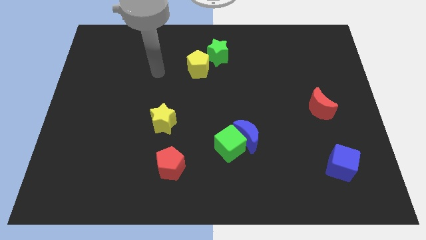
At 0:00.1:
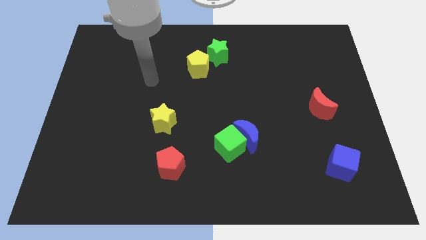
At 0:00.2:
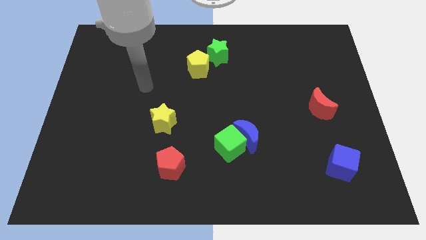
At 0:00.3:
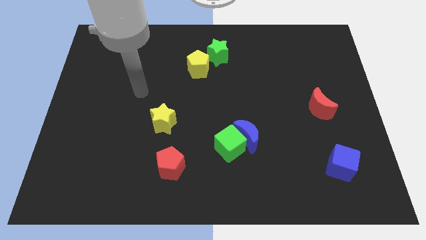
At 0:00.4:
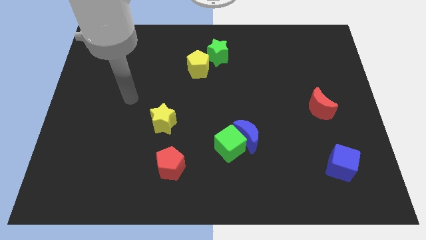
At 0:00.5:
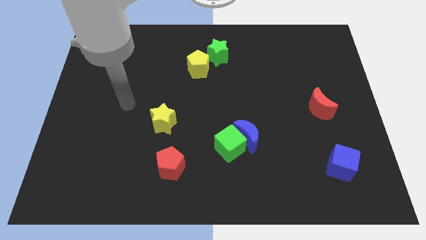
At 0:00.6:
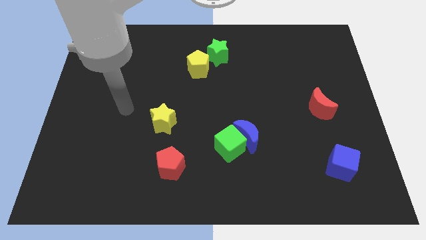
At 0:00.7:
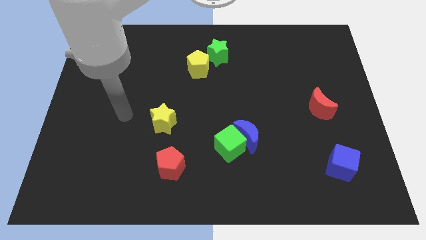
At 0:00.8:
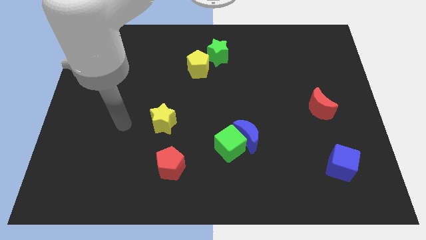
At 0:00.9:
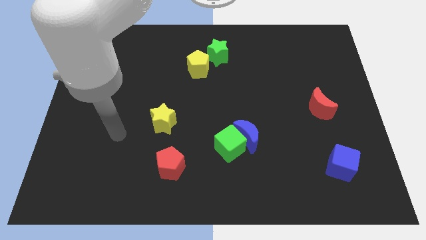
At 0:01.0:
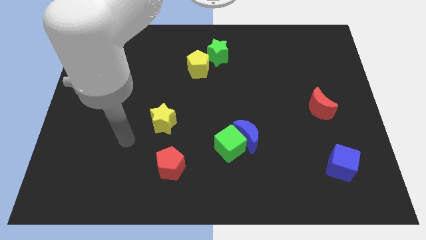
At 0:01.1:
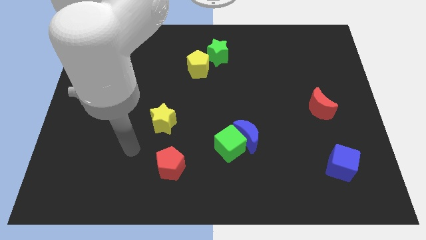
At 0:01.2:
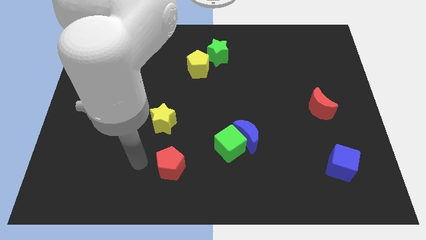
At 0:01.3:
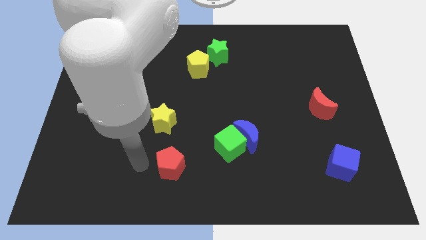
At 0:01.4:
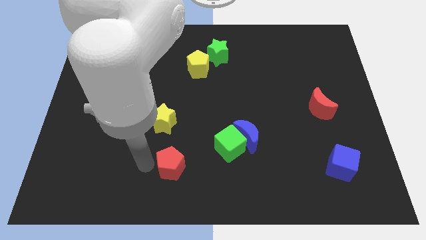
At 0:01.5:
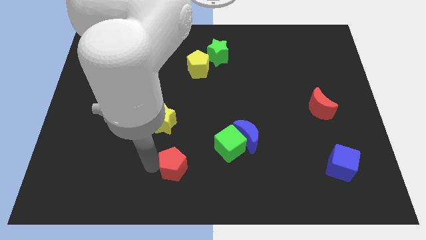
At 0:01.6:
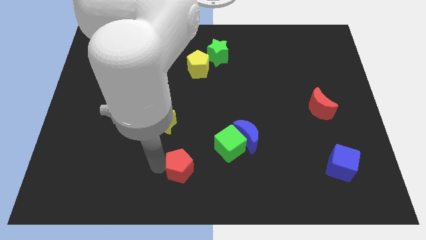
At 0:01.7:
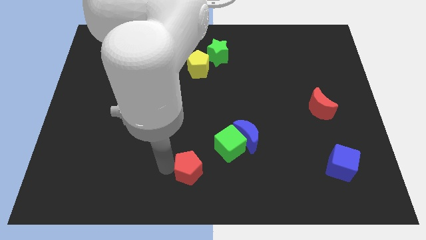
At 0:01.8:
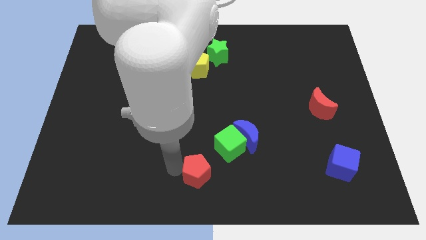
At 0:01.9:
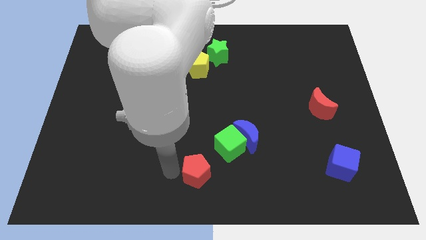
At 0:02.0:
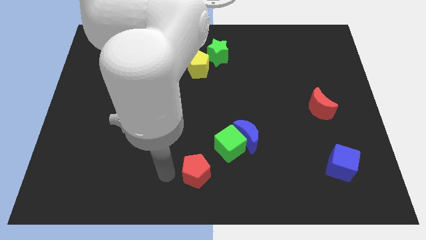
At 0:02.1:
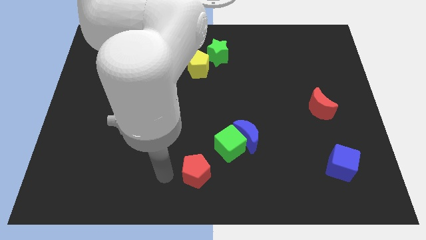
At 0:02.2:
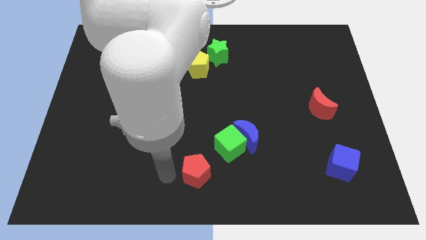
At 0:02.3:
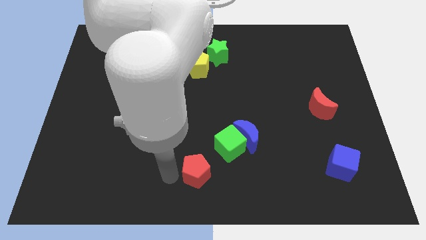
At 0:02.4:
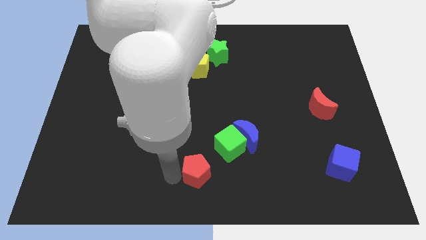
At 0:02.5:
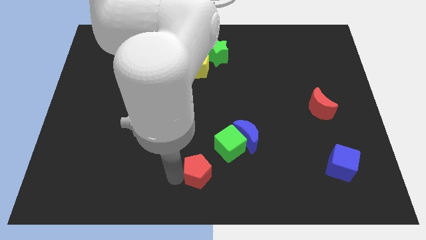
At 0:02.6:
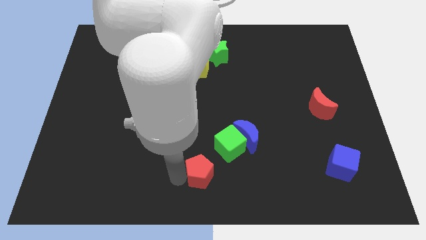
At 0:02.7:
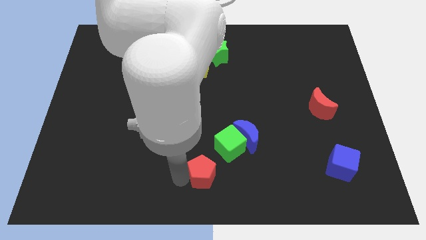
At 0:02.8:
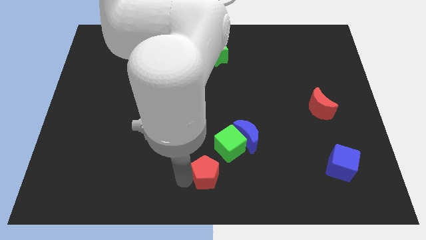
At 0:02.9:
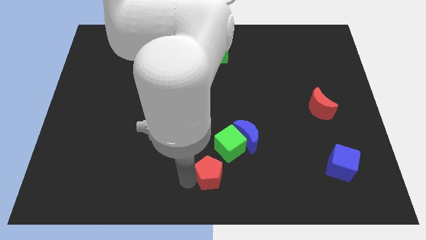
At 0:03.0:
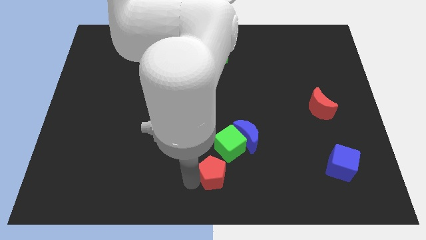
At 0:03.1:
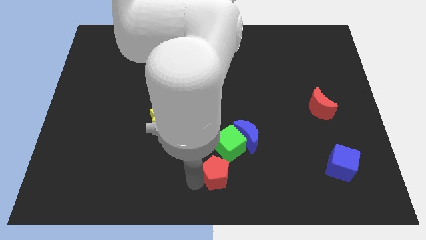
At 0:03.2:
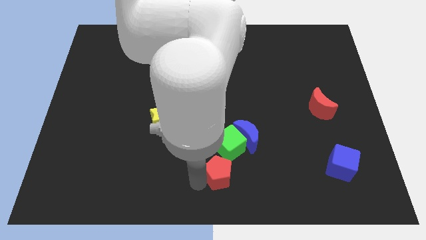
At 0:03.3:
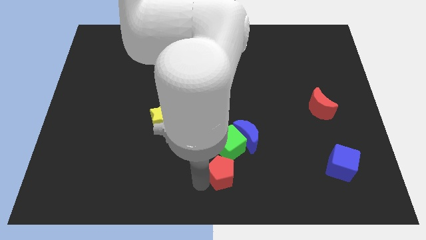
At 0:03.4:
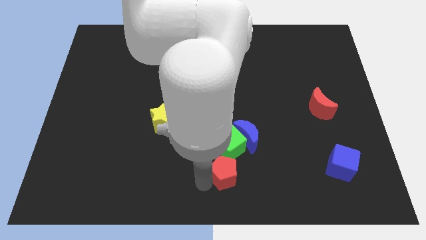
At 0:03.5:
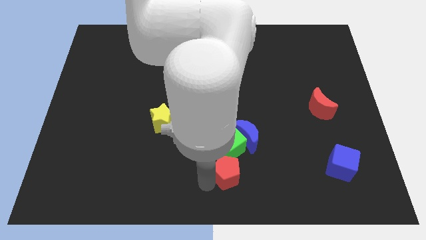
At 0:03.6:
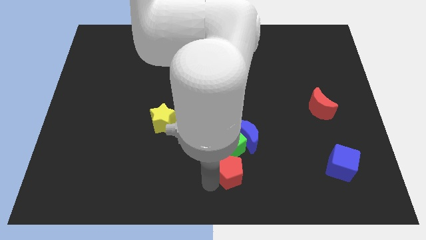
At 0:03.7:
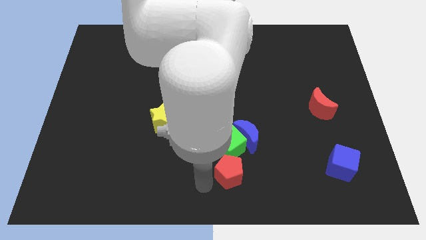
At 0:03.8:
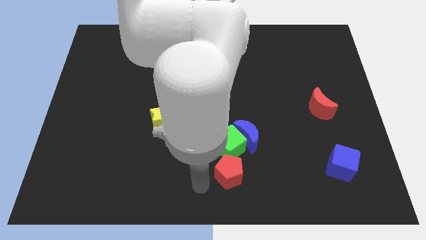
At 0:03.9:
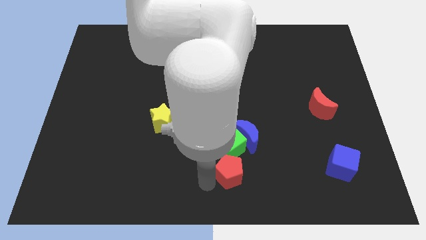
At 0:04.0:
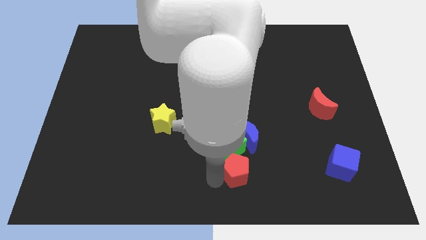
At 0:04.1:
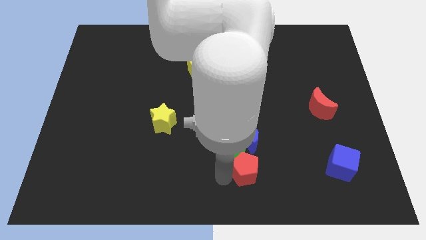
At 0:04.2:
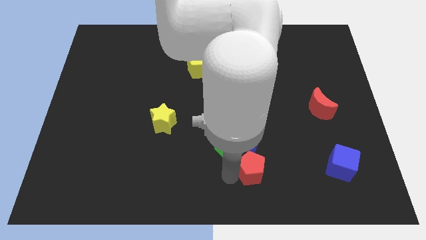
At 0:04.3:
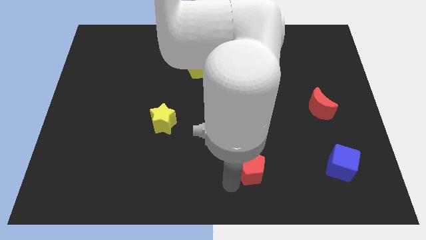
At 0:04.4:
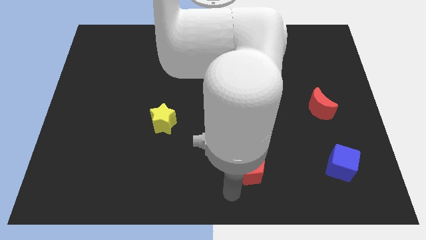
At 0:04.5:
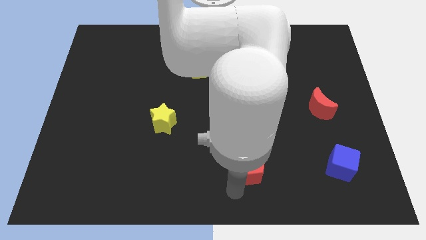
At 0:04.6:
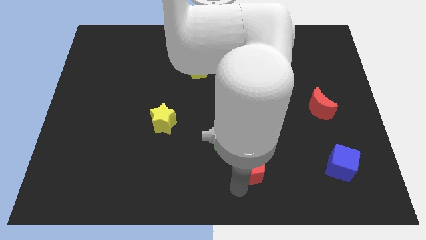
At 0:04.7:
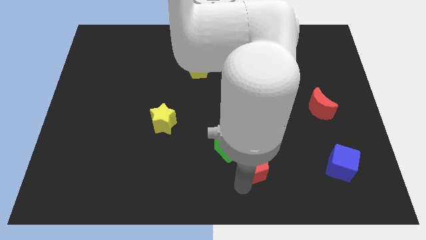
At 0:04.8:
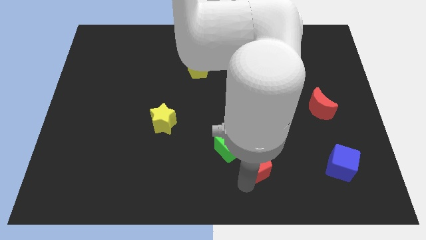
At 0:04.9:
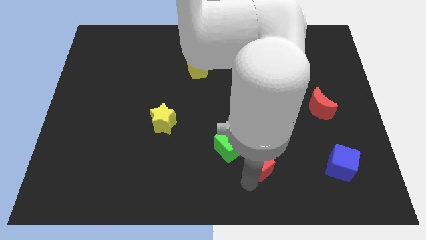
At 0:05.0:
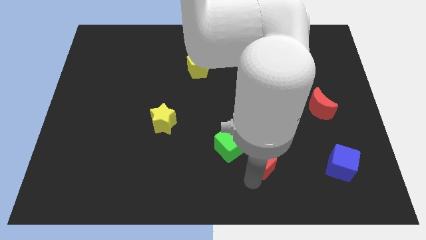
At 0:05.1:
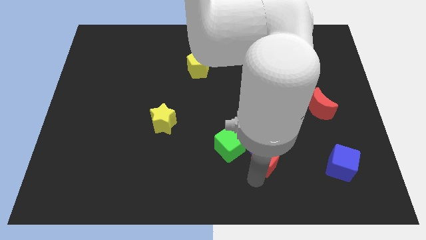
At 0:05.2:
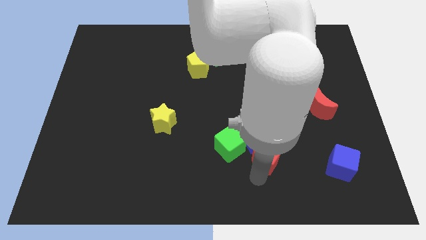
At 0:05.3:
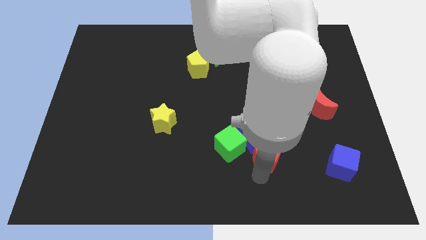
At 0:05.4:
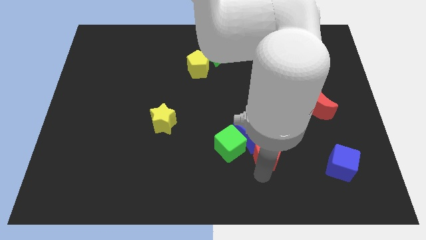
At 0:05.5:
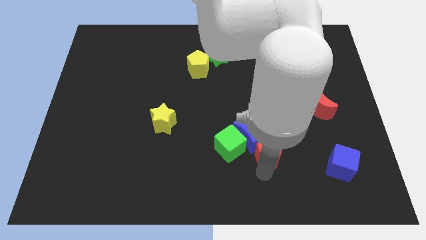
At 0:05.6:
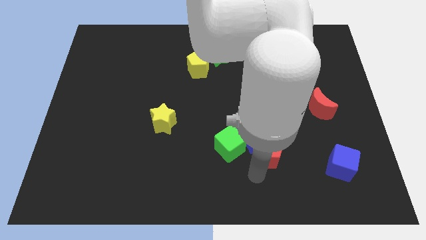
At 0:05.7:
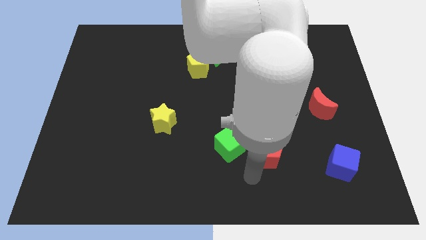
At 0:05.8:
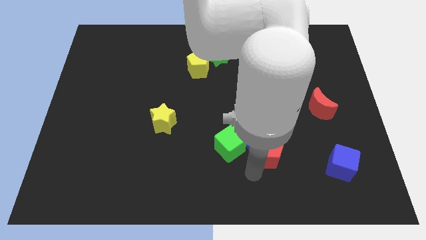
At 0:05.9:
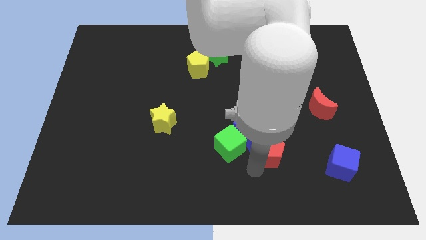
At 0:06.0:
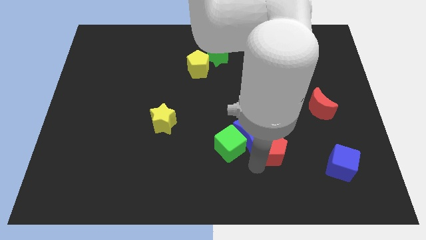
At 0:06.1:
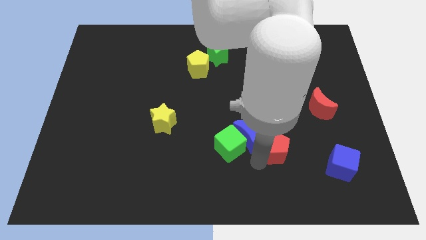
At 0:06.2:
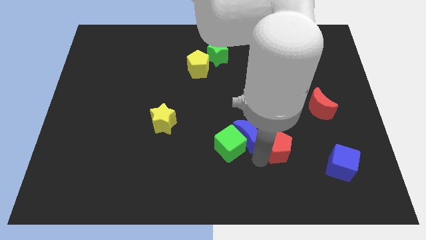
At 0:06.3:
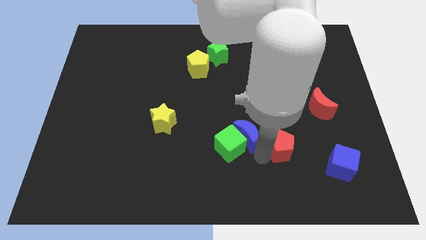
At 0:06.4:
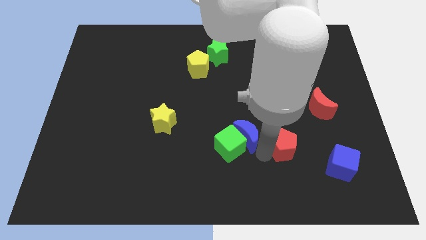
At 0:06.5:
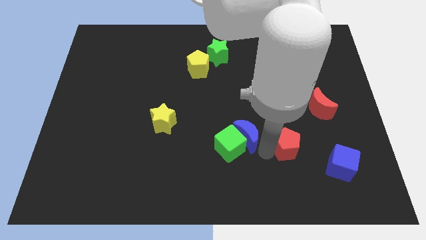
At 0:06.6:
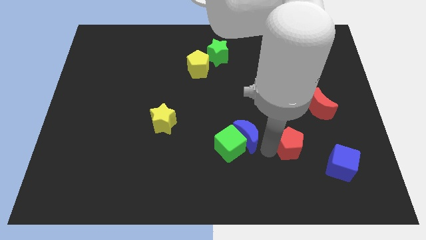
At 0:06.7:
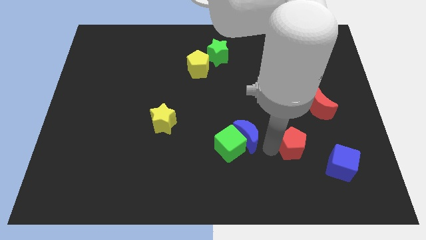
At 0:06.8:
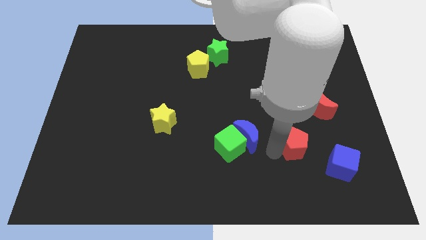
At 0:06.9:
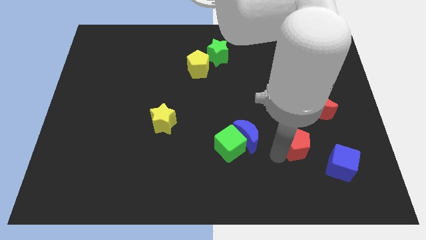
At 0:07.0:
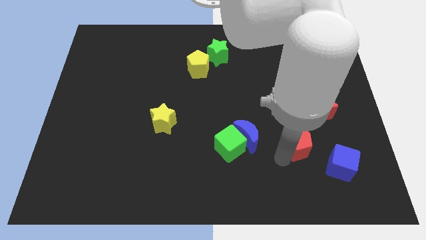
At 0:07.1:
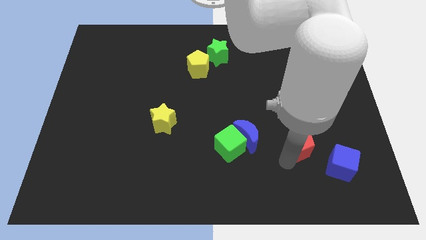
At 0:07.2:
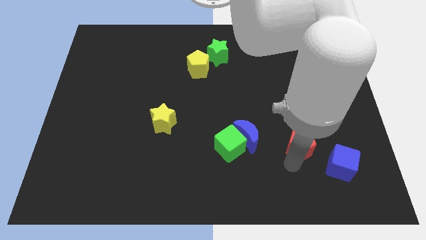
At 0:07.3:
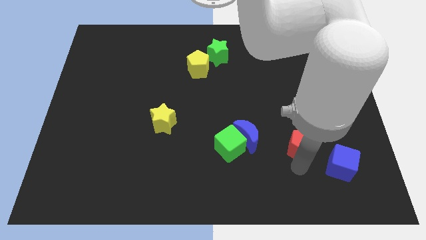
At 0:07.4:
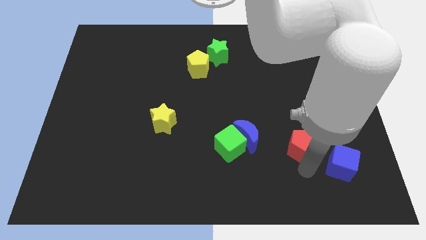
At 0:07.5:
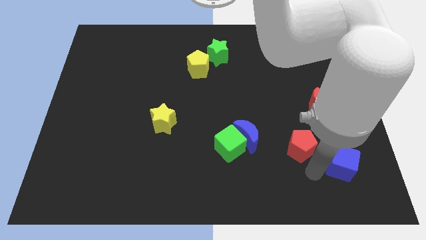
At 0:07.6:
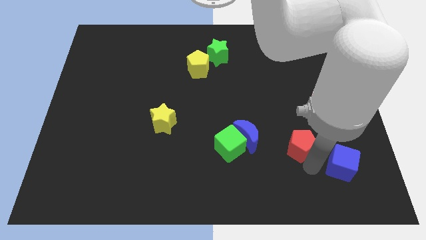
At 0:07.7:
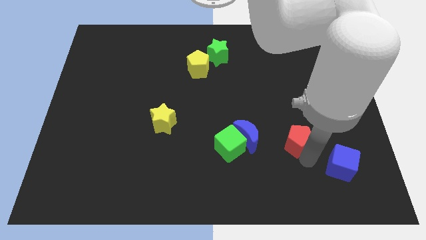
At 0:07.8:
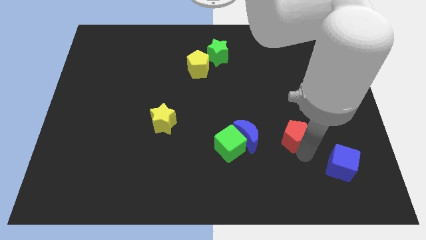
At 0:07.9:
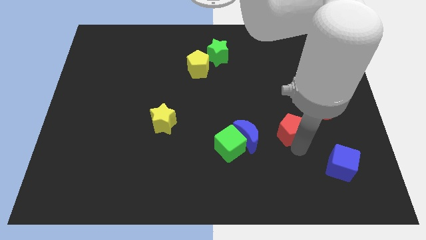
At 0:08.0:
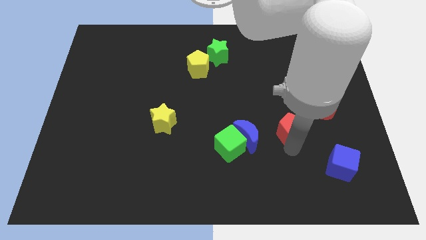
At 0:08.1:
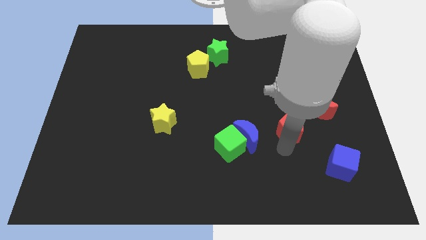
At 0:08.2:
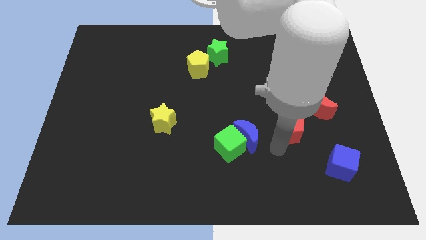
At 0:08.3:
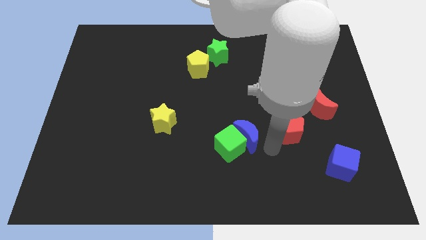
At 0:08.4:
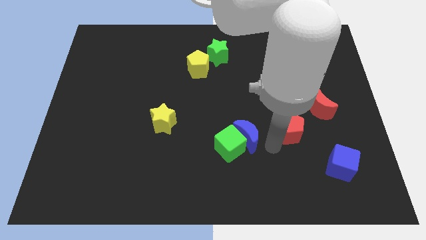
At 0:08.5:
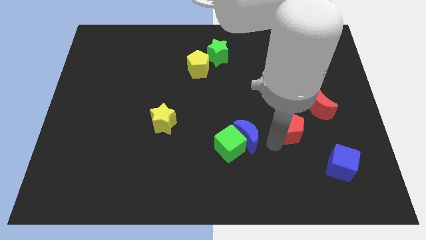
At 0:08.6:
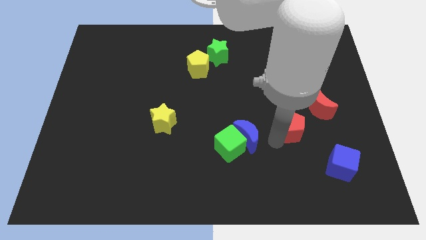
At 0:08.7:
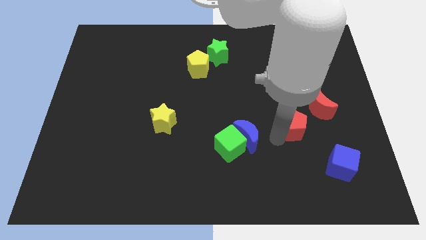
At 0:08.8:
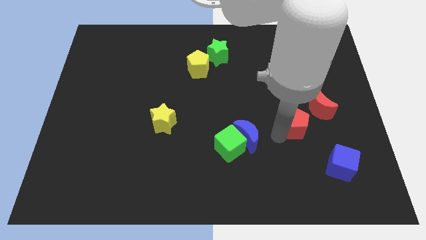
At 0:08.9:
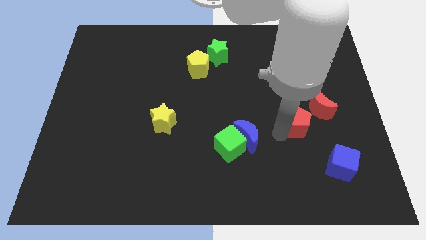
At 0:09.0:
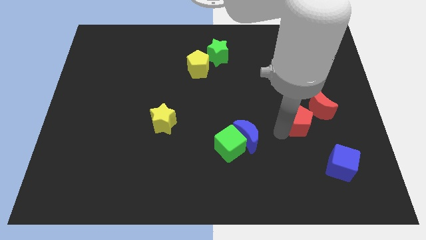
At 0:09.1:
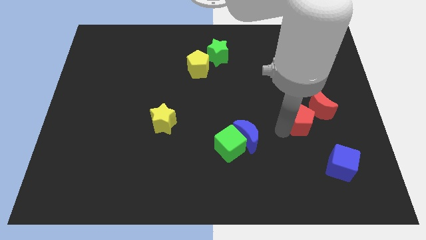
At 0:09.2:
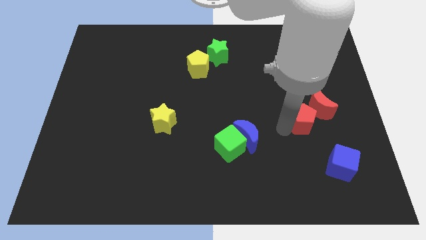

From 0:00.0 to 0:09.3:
slide the red pentagon to the red moon
